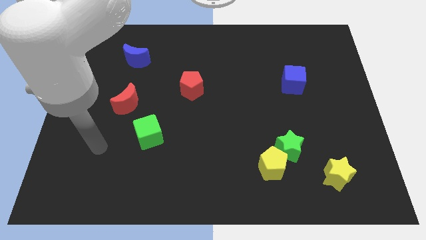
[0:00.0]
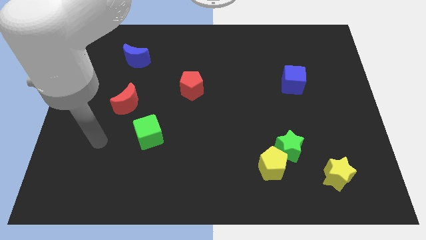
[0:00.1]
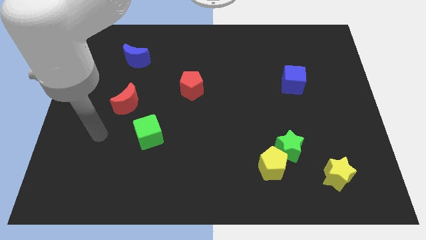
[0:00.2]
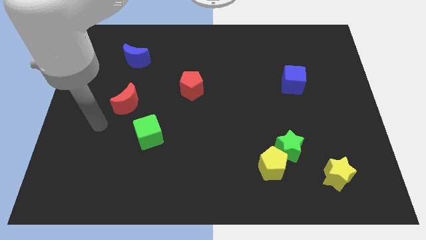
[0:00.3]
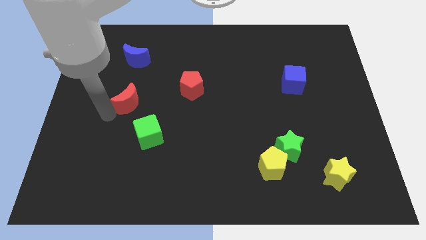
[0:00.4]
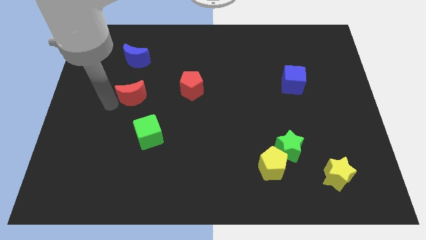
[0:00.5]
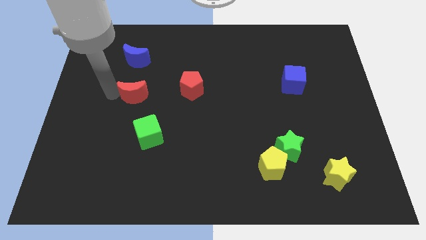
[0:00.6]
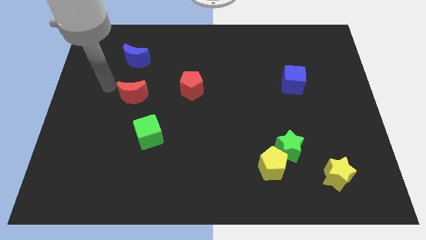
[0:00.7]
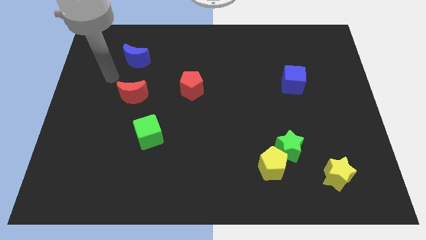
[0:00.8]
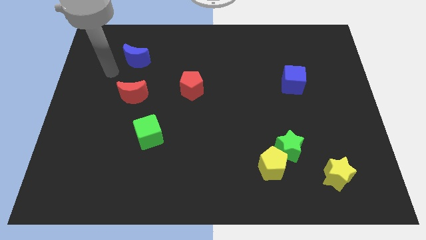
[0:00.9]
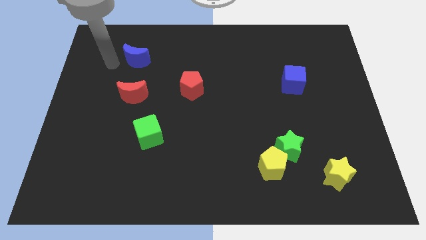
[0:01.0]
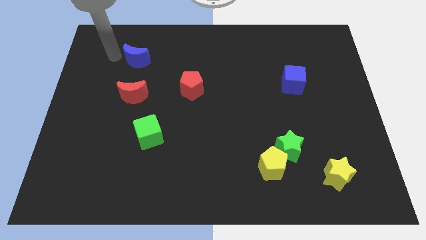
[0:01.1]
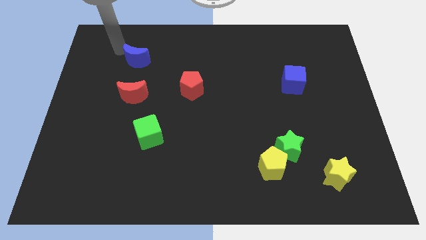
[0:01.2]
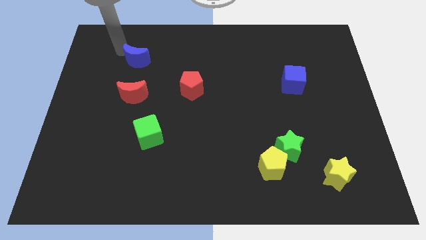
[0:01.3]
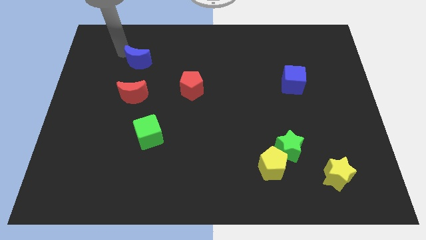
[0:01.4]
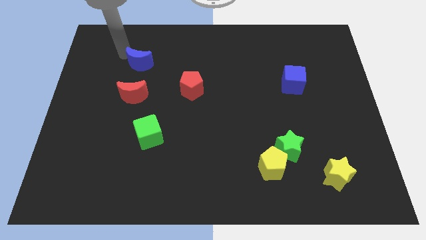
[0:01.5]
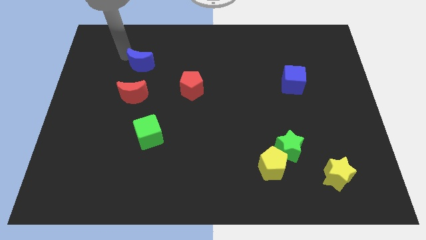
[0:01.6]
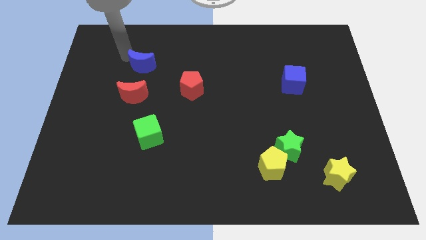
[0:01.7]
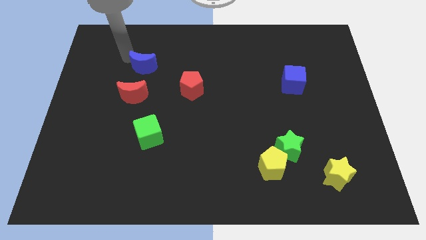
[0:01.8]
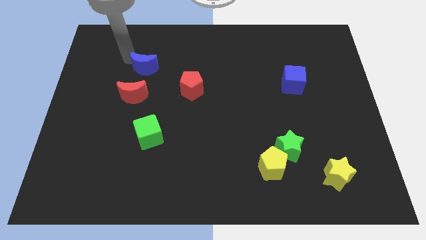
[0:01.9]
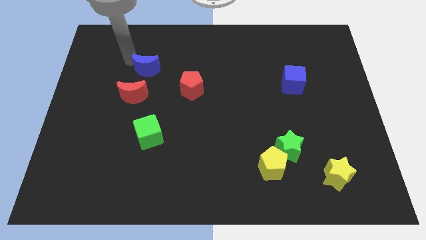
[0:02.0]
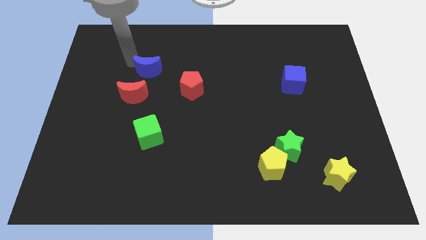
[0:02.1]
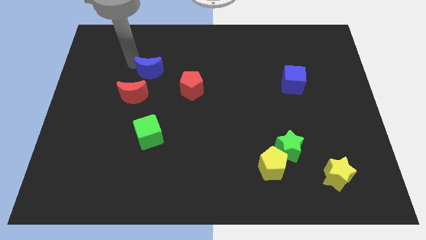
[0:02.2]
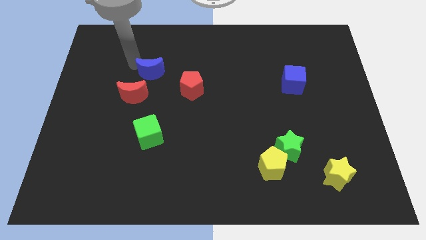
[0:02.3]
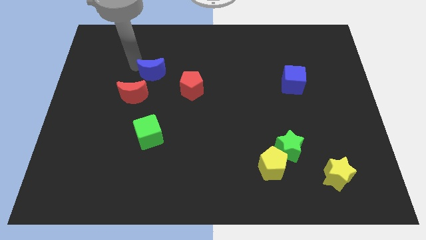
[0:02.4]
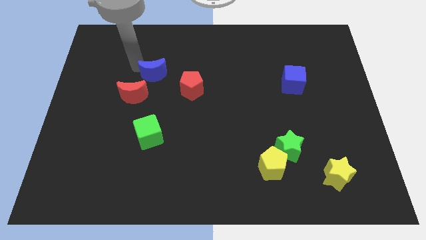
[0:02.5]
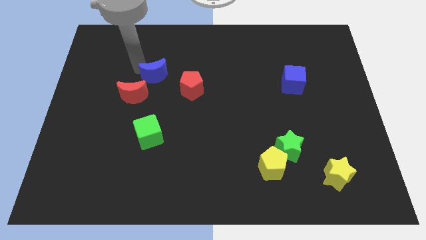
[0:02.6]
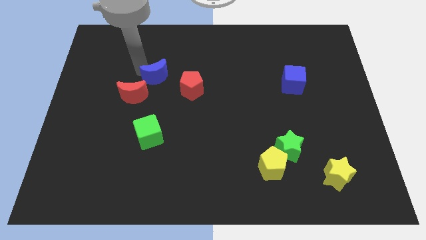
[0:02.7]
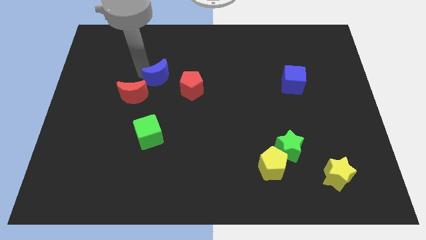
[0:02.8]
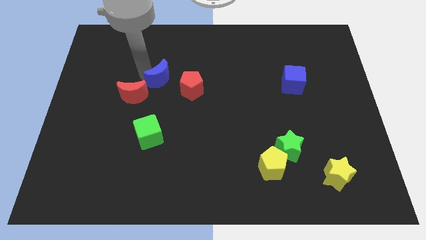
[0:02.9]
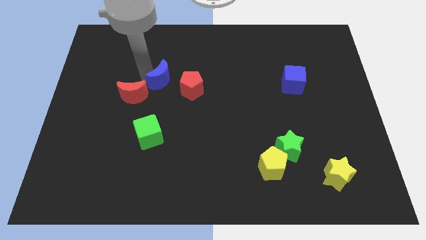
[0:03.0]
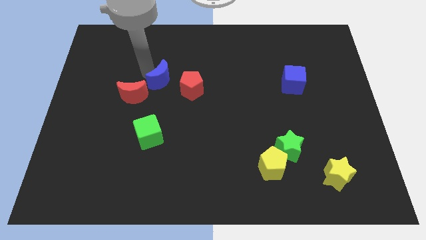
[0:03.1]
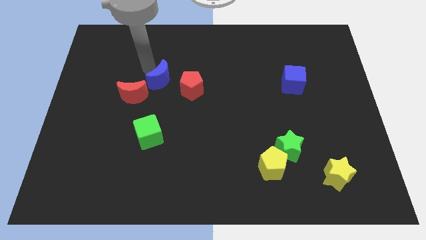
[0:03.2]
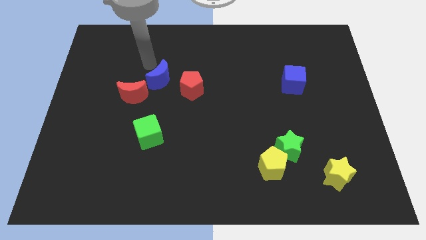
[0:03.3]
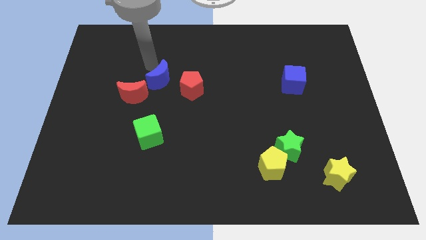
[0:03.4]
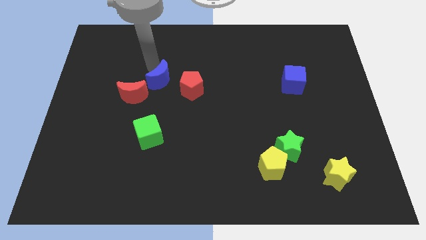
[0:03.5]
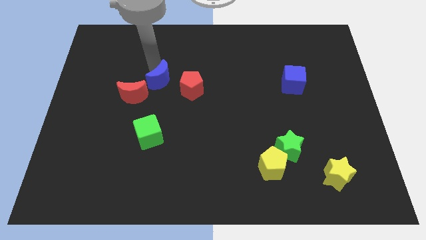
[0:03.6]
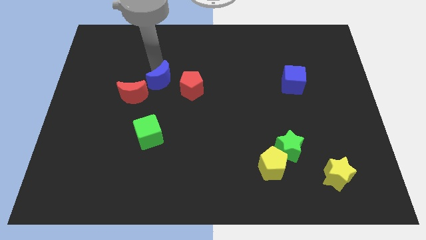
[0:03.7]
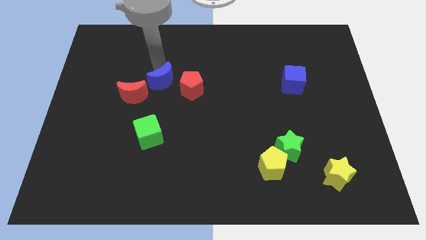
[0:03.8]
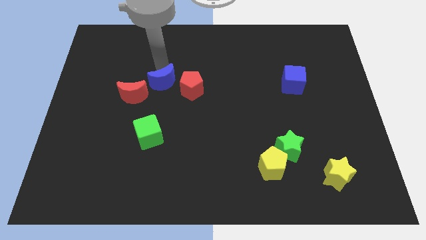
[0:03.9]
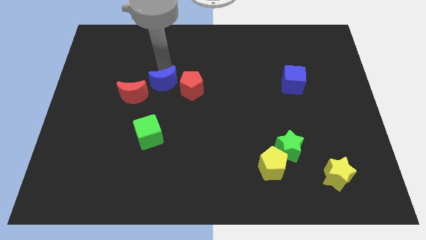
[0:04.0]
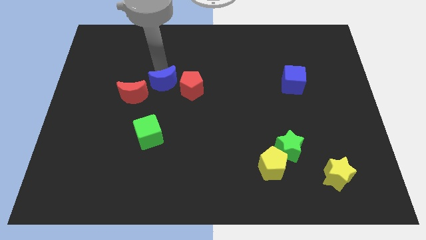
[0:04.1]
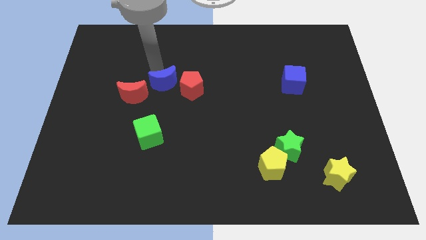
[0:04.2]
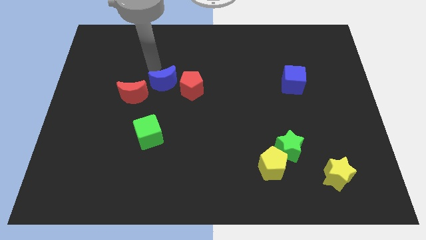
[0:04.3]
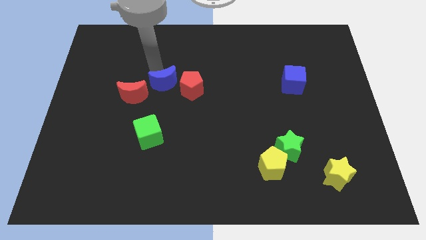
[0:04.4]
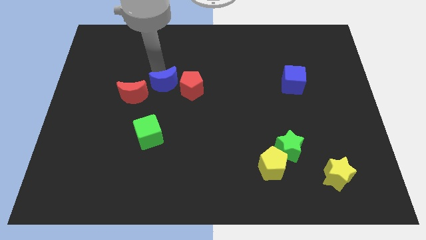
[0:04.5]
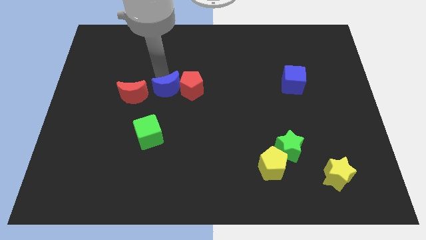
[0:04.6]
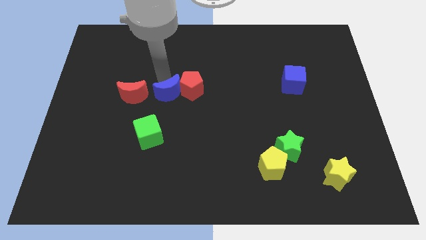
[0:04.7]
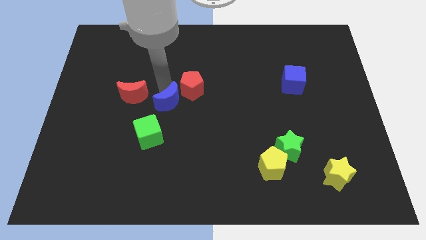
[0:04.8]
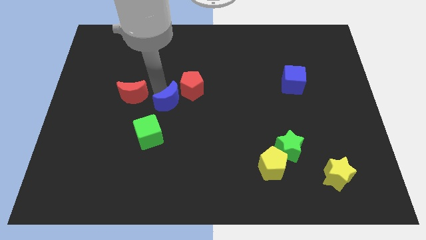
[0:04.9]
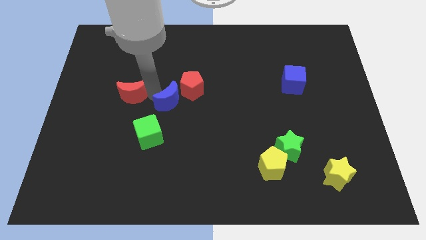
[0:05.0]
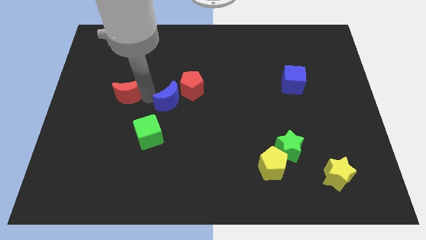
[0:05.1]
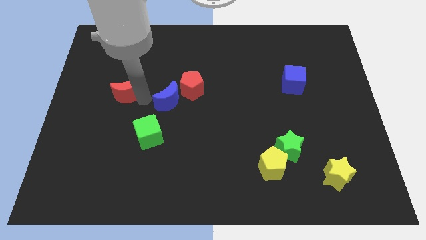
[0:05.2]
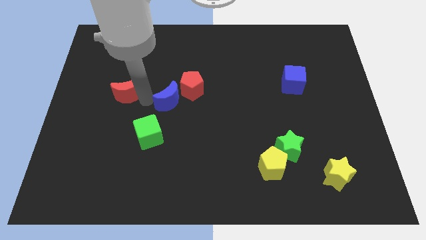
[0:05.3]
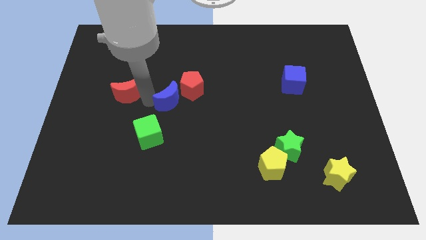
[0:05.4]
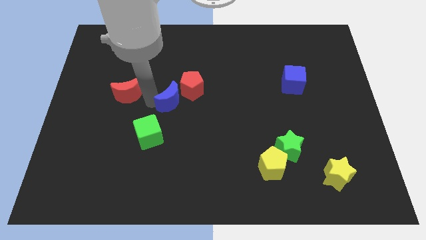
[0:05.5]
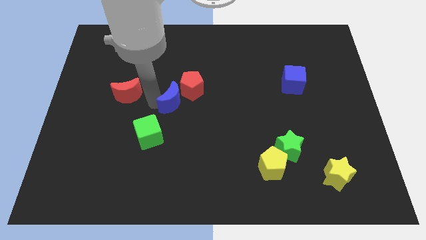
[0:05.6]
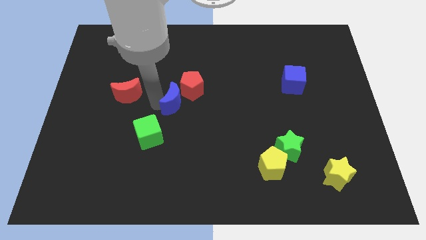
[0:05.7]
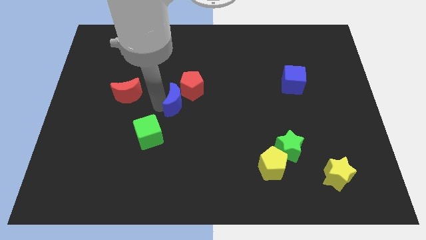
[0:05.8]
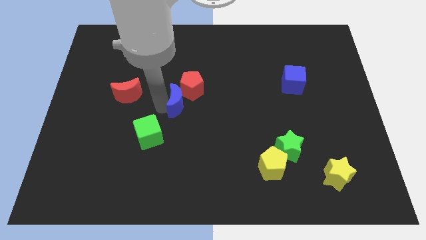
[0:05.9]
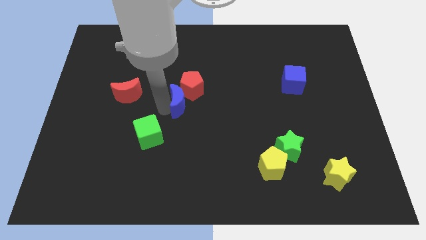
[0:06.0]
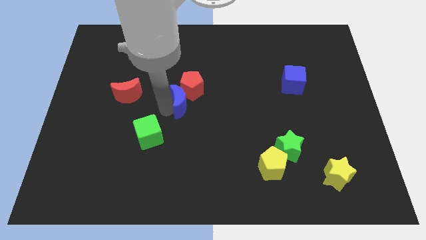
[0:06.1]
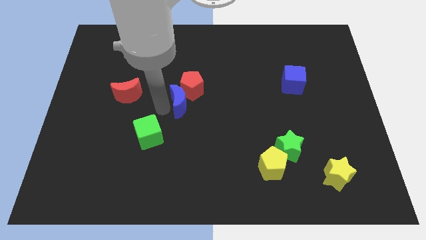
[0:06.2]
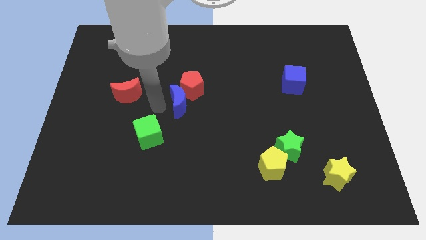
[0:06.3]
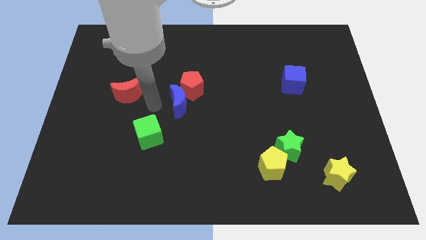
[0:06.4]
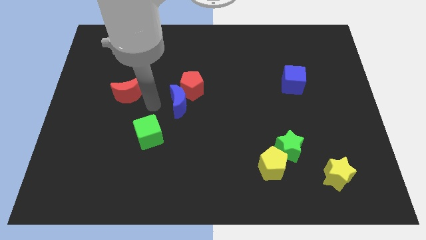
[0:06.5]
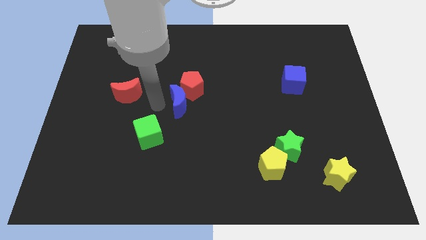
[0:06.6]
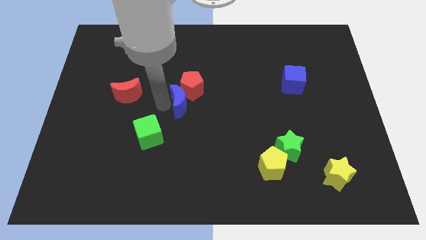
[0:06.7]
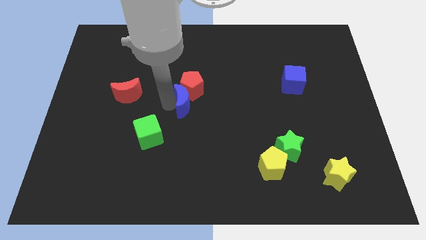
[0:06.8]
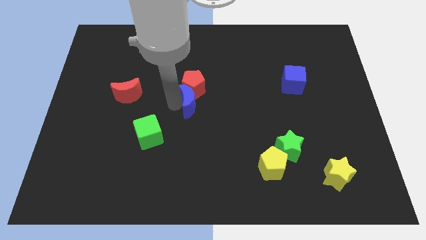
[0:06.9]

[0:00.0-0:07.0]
move the blue moon to the bottom right side of the red pentagon

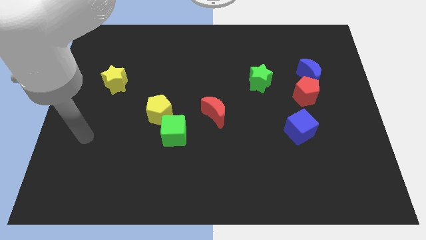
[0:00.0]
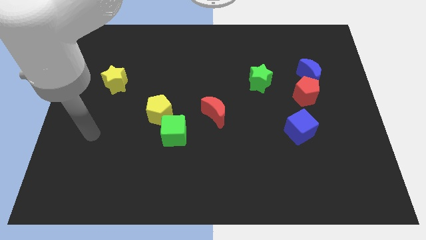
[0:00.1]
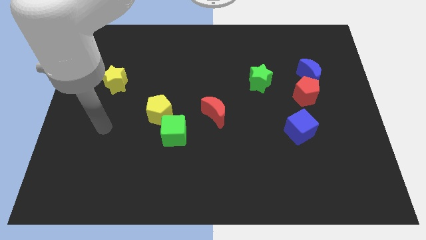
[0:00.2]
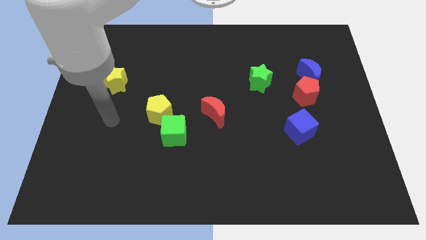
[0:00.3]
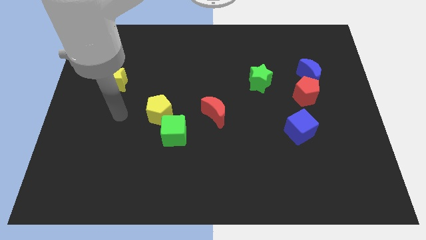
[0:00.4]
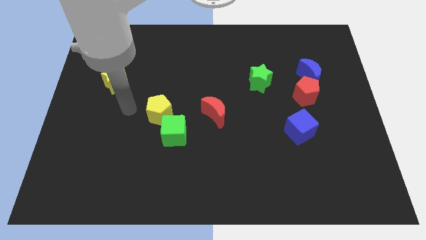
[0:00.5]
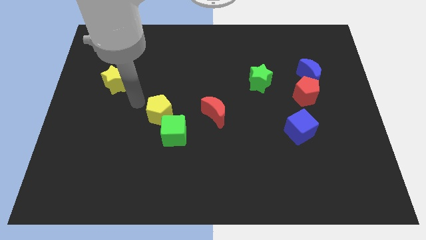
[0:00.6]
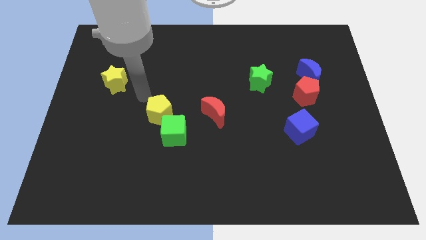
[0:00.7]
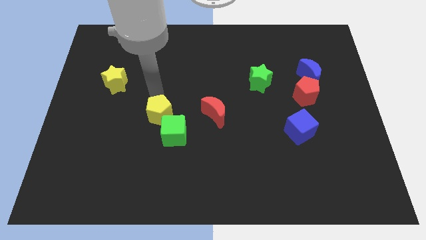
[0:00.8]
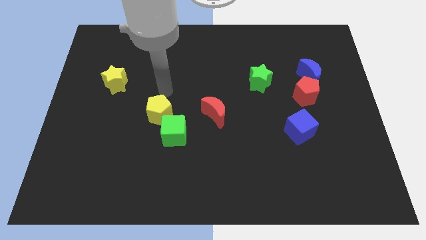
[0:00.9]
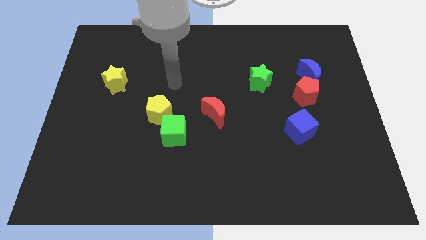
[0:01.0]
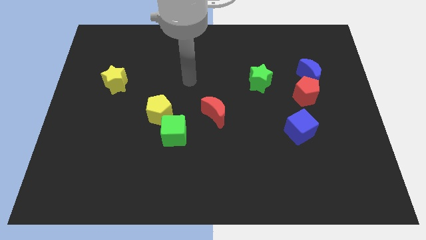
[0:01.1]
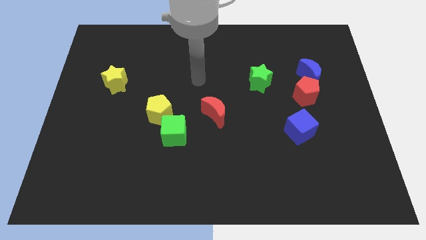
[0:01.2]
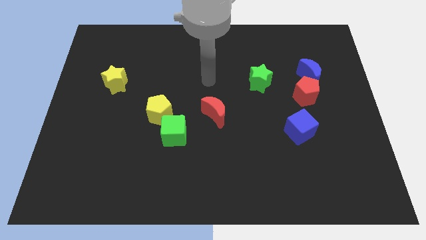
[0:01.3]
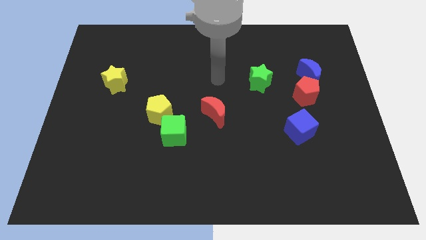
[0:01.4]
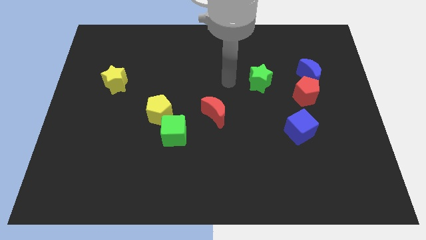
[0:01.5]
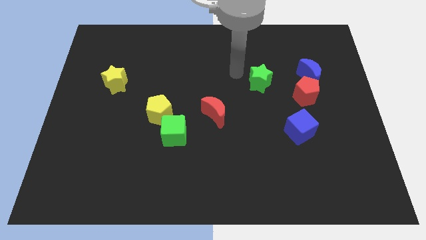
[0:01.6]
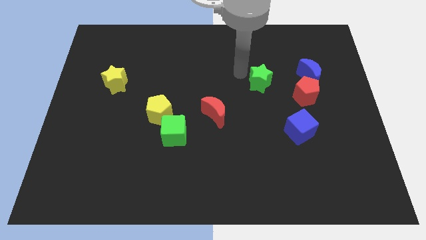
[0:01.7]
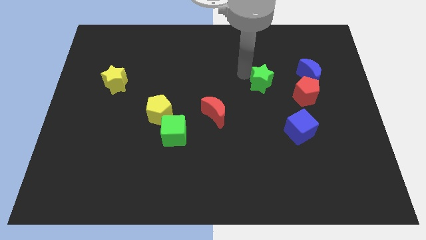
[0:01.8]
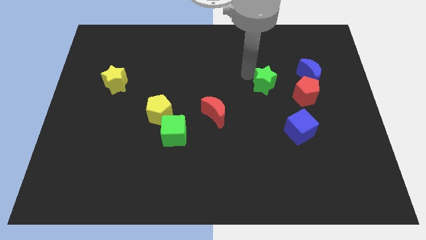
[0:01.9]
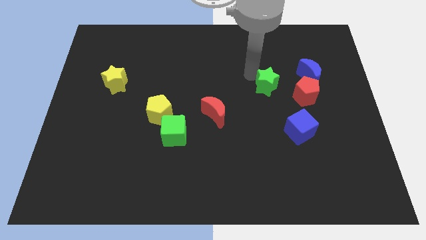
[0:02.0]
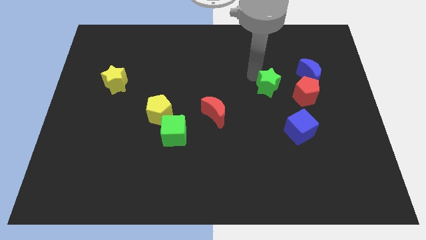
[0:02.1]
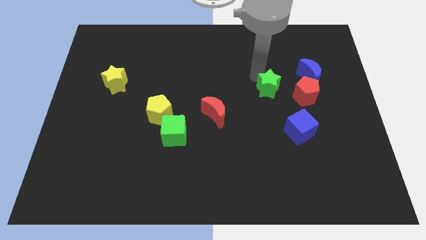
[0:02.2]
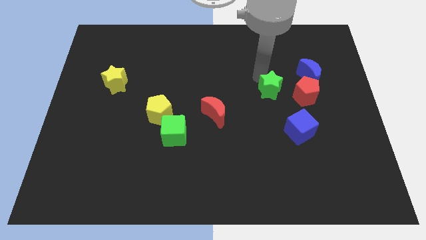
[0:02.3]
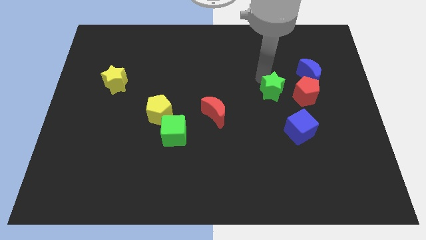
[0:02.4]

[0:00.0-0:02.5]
slide the green star to the top side of the blue cube
